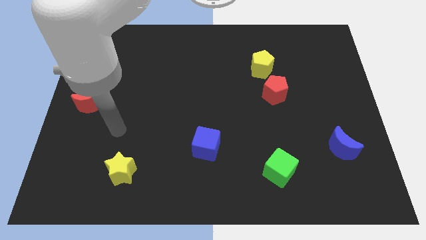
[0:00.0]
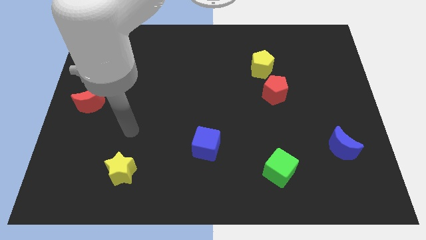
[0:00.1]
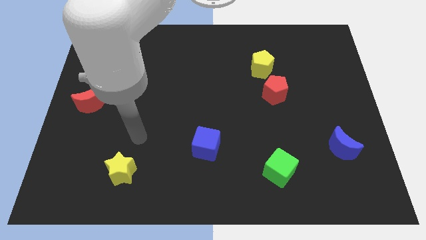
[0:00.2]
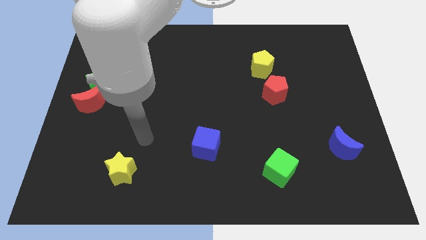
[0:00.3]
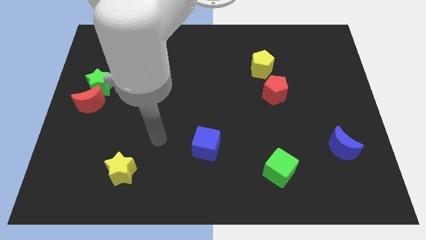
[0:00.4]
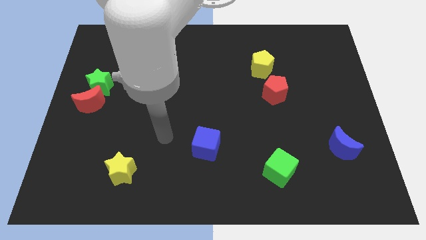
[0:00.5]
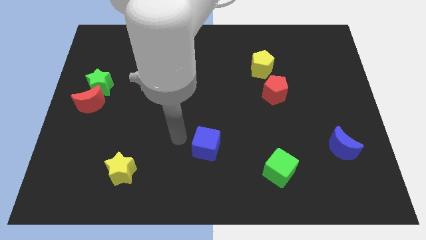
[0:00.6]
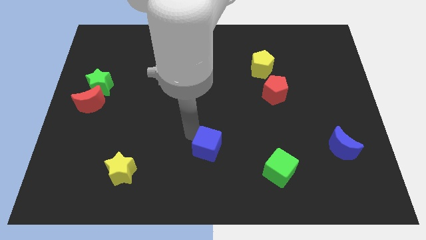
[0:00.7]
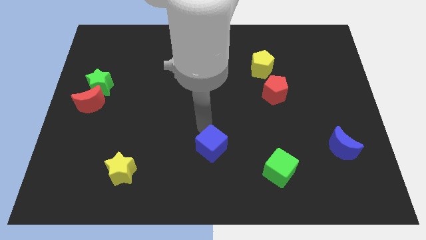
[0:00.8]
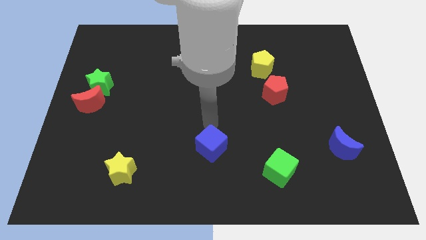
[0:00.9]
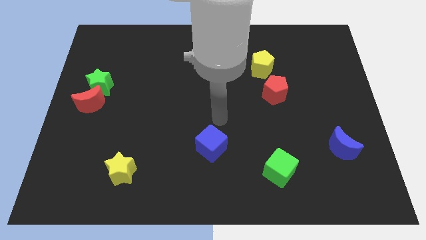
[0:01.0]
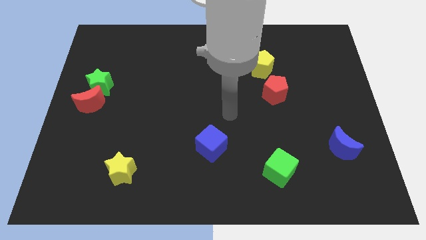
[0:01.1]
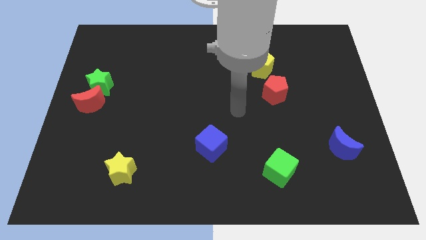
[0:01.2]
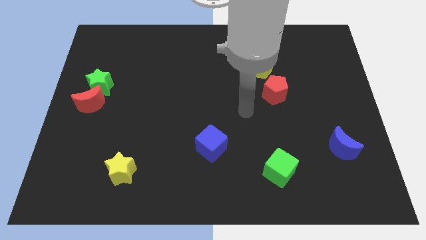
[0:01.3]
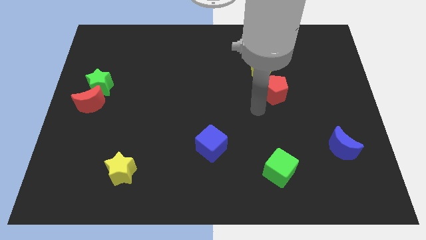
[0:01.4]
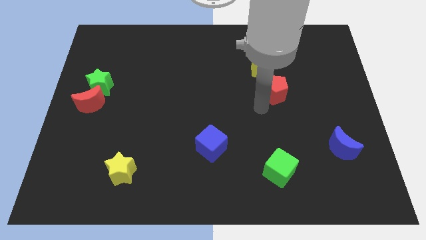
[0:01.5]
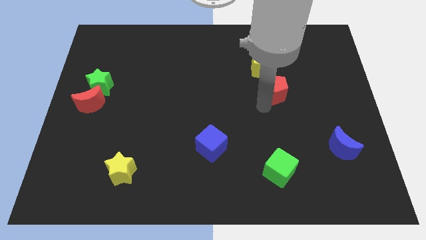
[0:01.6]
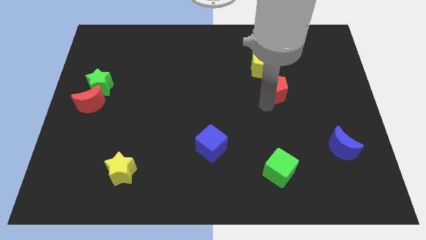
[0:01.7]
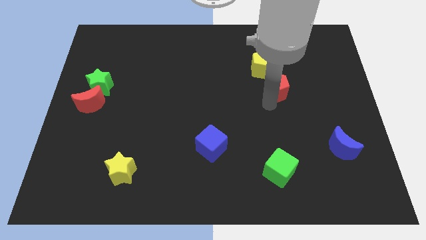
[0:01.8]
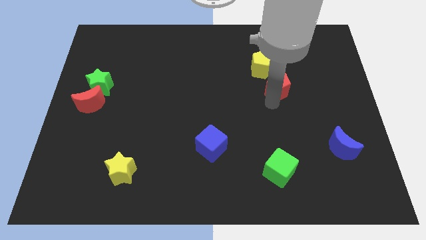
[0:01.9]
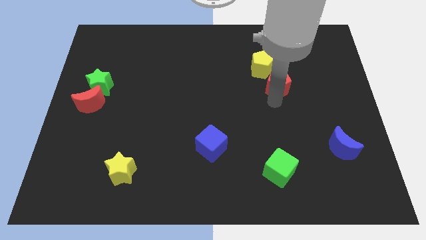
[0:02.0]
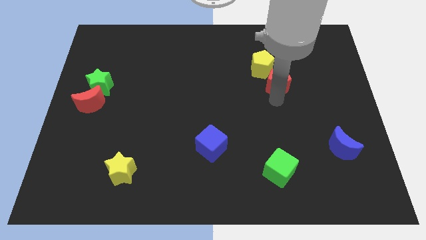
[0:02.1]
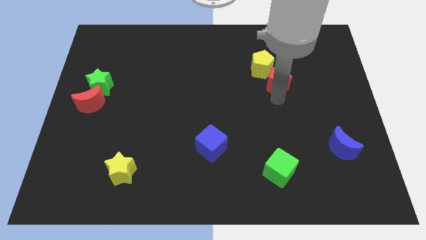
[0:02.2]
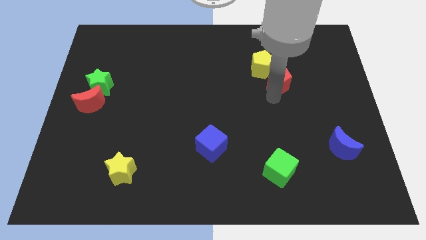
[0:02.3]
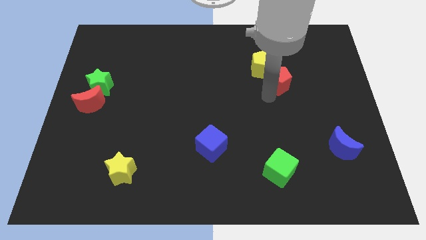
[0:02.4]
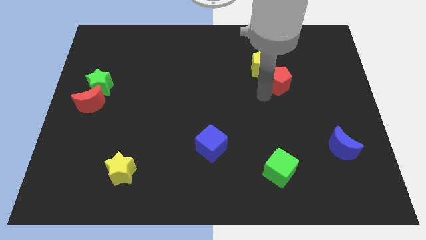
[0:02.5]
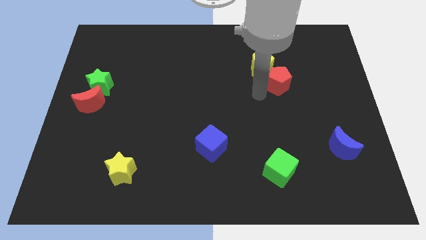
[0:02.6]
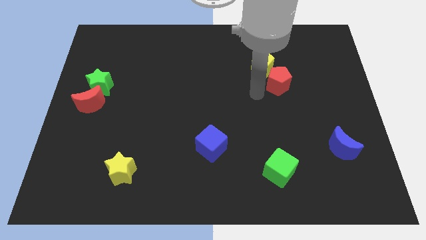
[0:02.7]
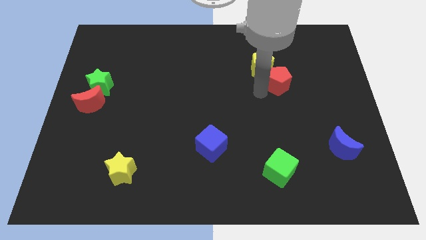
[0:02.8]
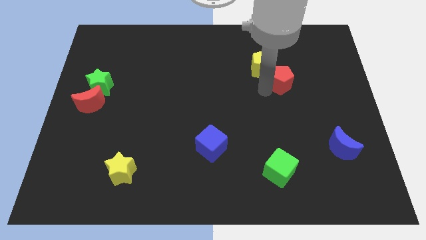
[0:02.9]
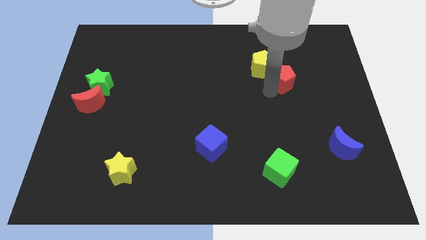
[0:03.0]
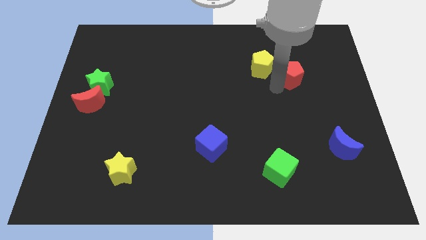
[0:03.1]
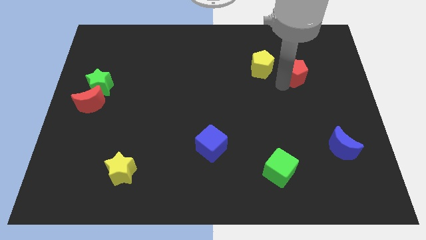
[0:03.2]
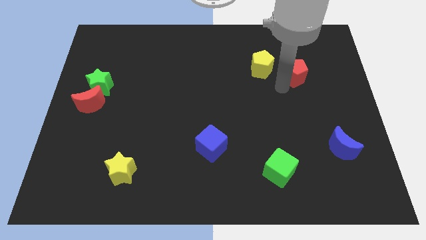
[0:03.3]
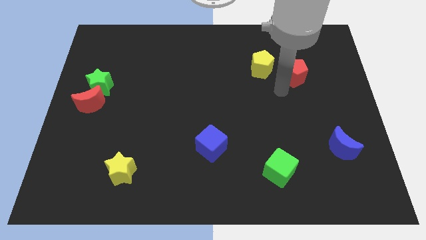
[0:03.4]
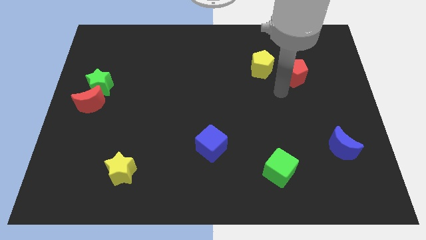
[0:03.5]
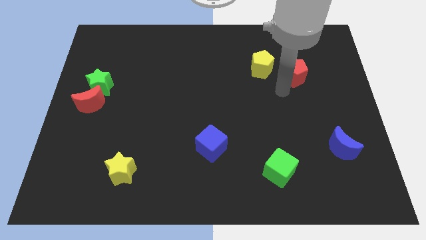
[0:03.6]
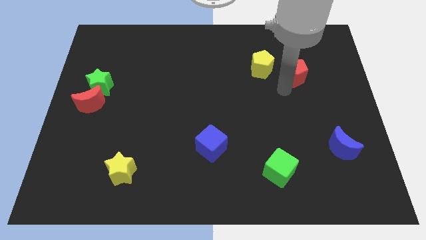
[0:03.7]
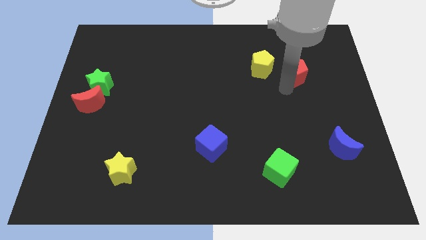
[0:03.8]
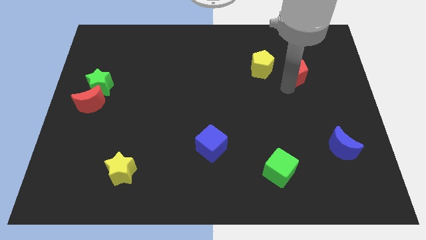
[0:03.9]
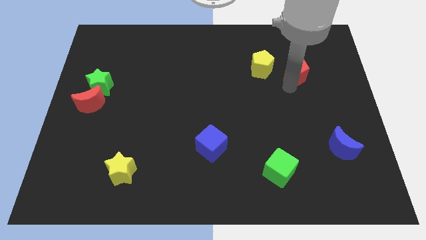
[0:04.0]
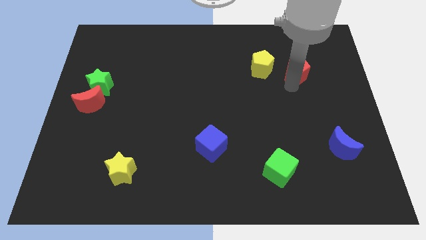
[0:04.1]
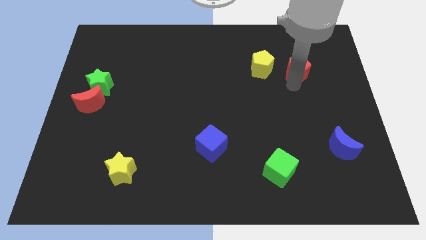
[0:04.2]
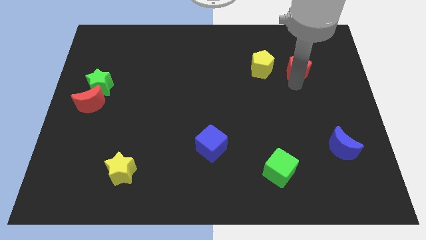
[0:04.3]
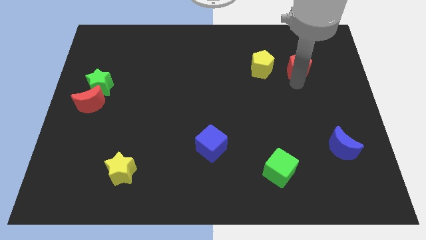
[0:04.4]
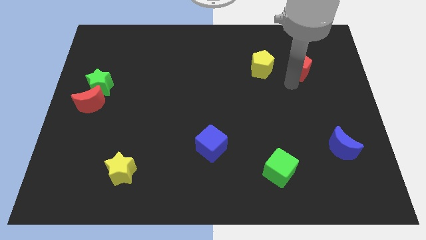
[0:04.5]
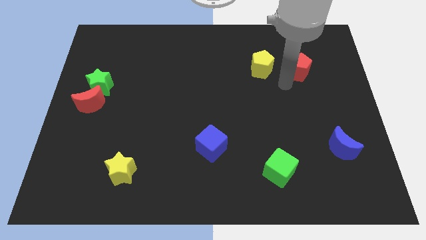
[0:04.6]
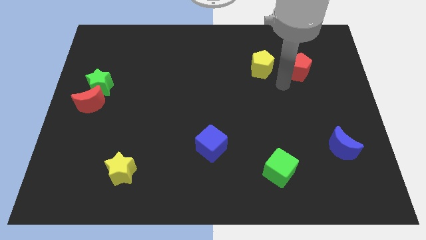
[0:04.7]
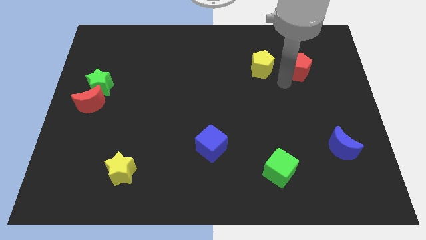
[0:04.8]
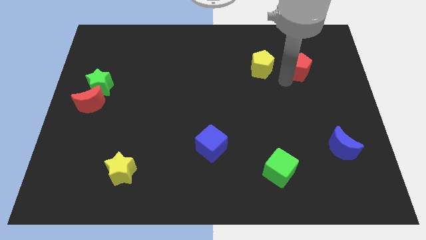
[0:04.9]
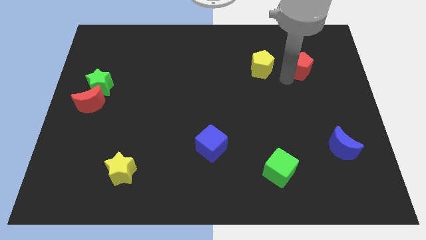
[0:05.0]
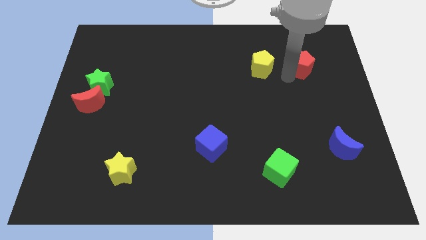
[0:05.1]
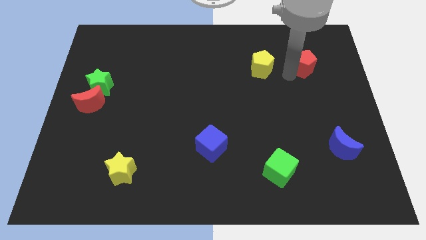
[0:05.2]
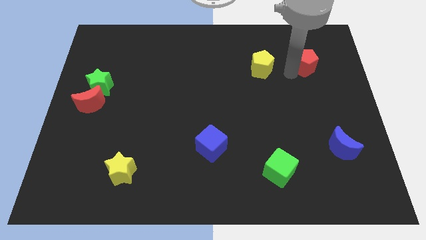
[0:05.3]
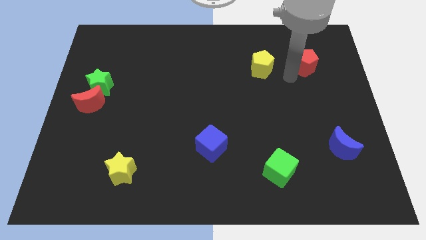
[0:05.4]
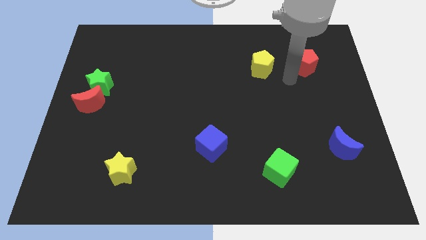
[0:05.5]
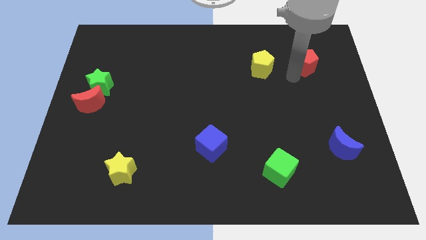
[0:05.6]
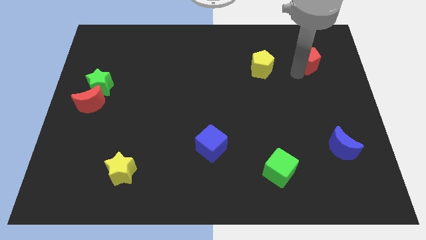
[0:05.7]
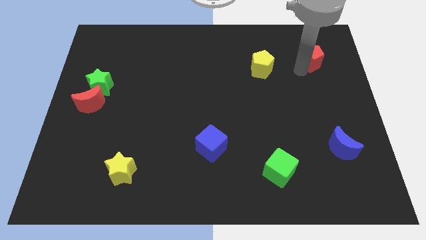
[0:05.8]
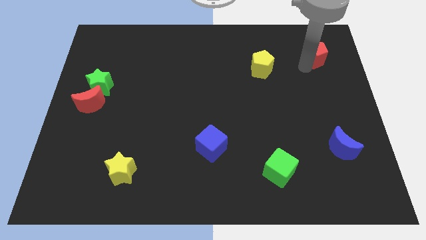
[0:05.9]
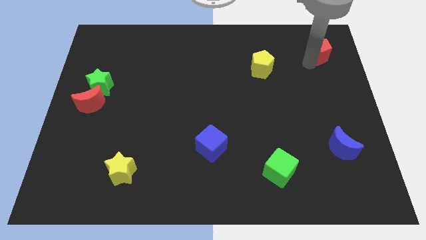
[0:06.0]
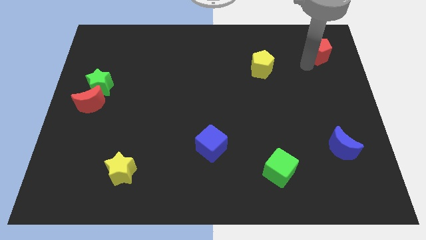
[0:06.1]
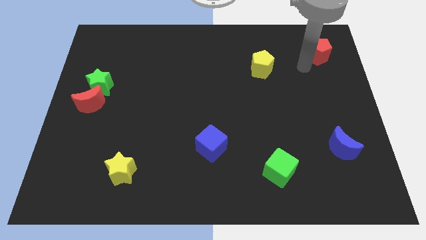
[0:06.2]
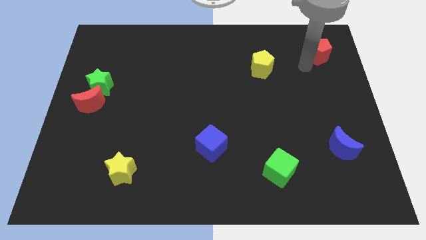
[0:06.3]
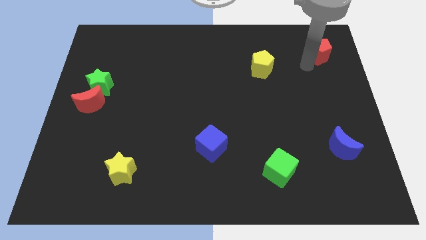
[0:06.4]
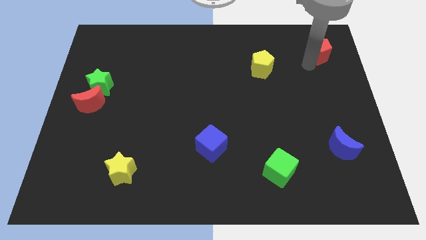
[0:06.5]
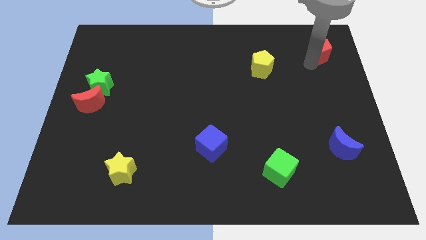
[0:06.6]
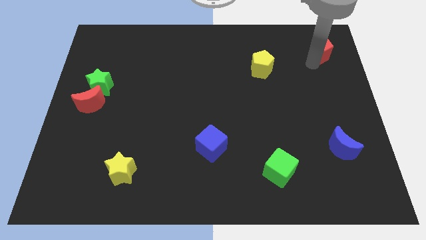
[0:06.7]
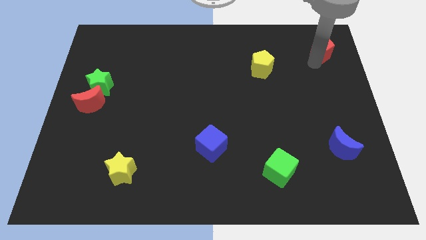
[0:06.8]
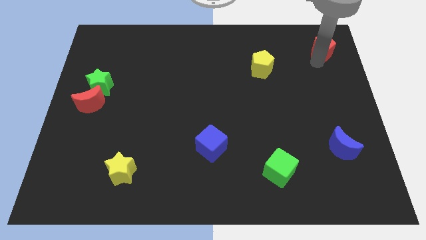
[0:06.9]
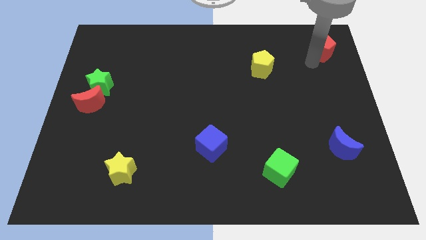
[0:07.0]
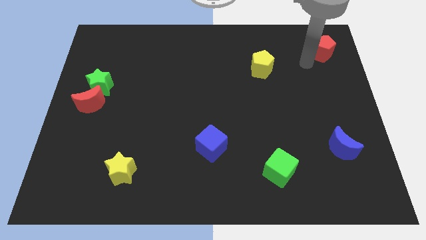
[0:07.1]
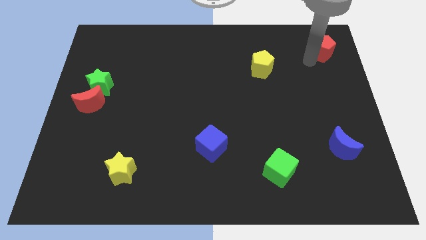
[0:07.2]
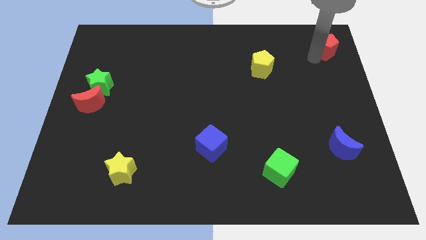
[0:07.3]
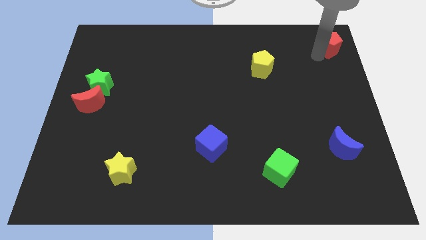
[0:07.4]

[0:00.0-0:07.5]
slide the red pentagon to the top right of the board
